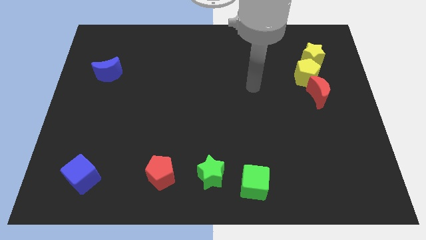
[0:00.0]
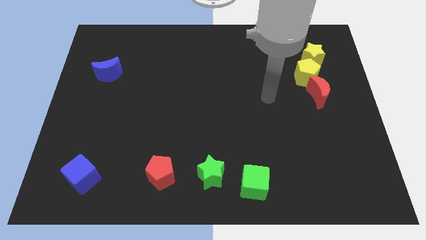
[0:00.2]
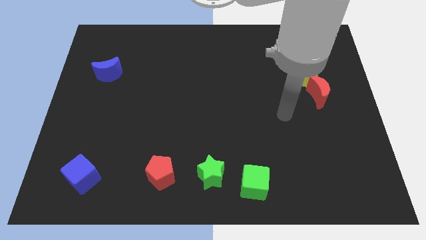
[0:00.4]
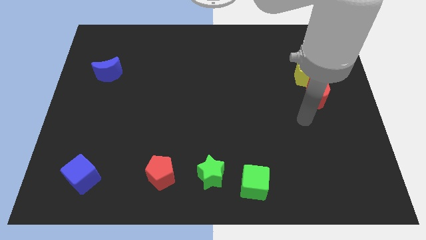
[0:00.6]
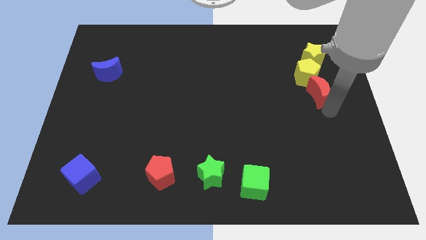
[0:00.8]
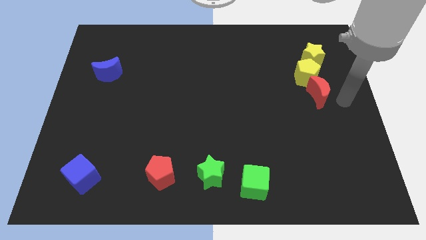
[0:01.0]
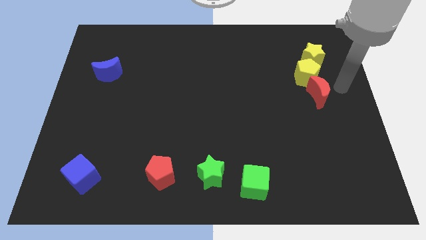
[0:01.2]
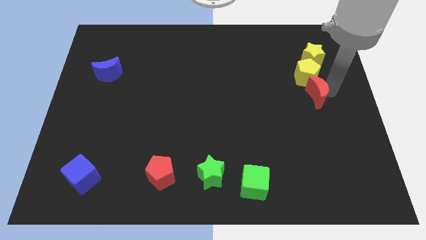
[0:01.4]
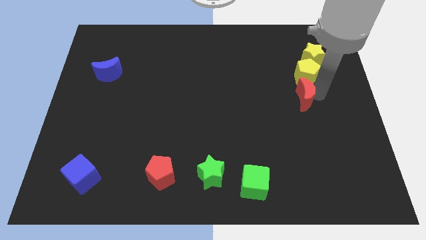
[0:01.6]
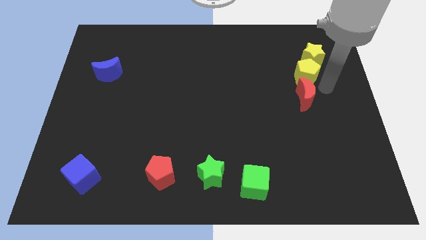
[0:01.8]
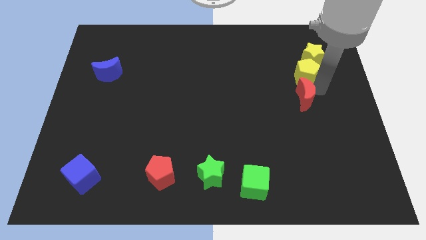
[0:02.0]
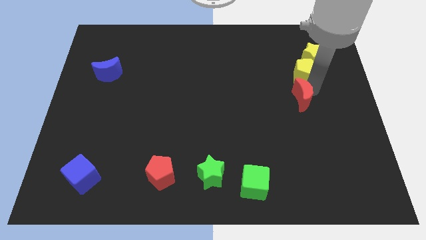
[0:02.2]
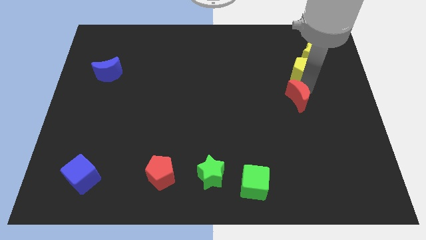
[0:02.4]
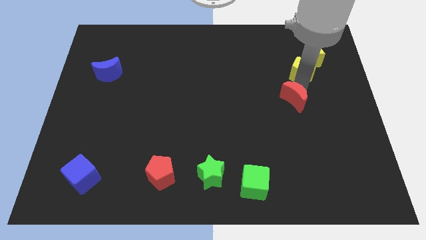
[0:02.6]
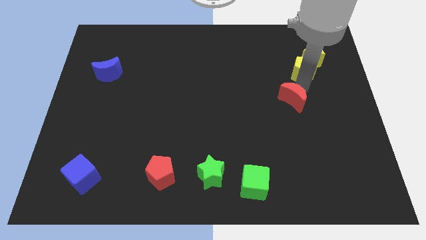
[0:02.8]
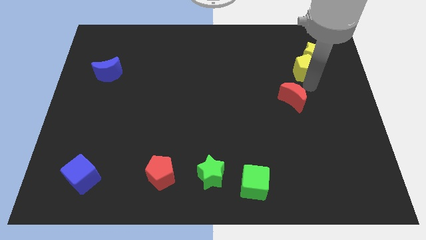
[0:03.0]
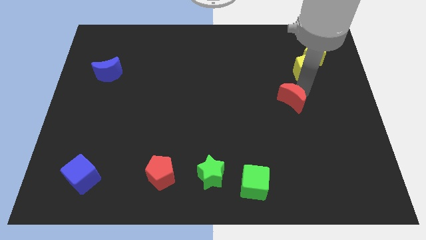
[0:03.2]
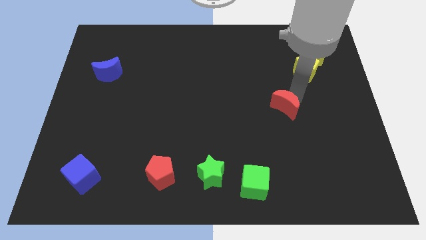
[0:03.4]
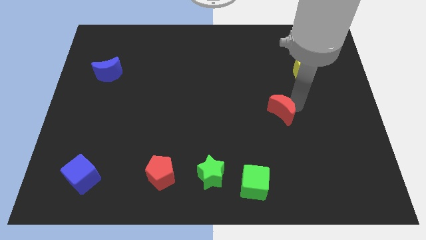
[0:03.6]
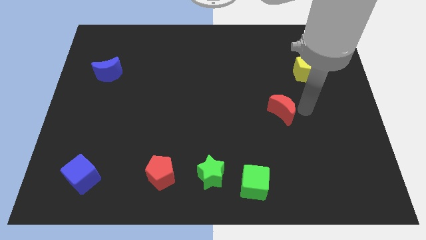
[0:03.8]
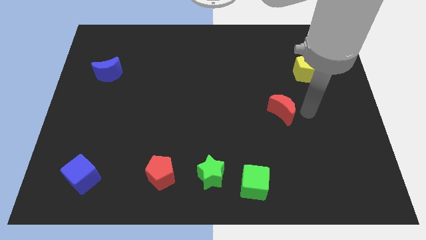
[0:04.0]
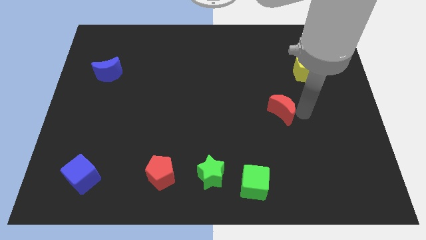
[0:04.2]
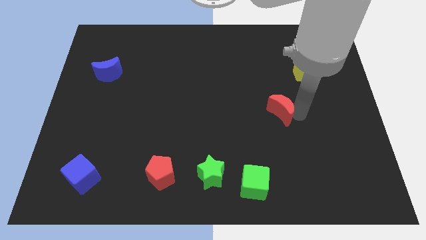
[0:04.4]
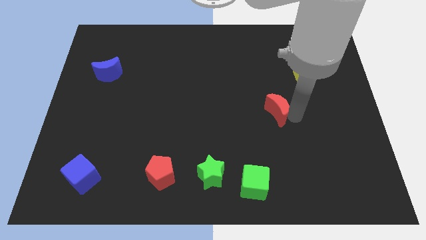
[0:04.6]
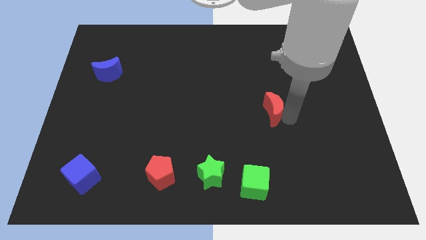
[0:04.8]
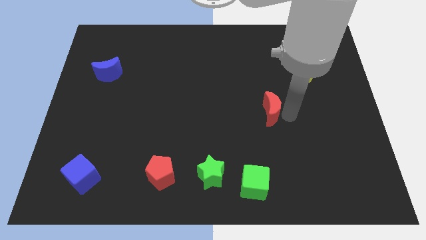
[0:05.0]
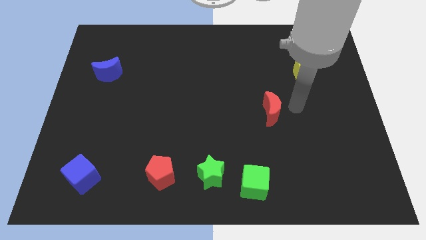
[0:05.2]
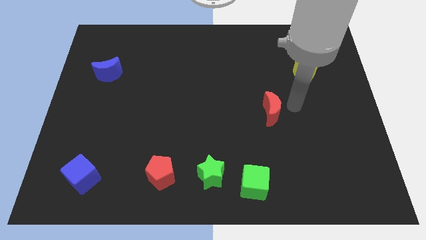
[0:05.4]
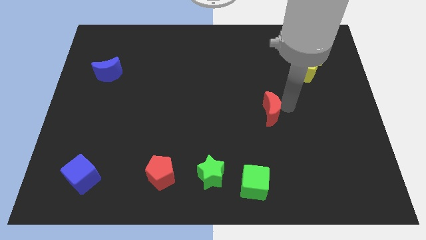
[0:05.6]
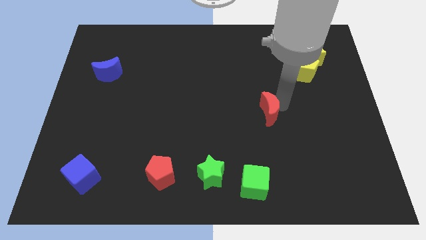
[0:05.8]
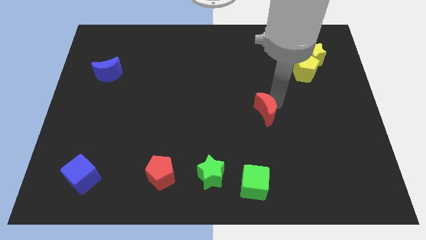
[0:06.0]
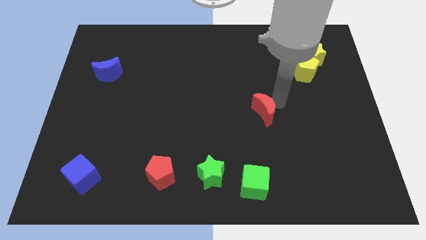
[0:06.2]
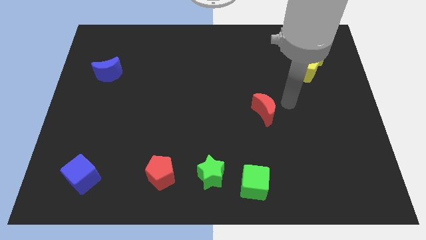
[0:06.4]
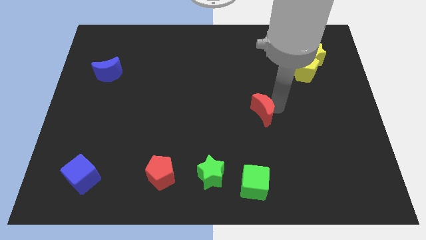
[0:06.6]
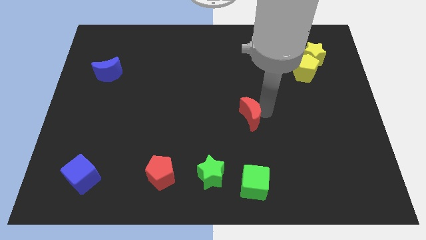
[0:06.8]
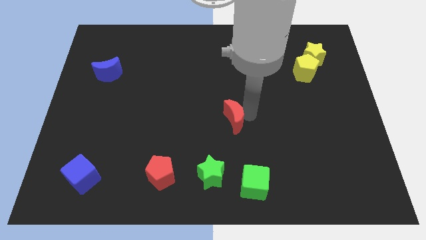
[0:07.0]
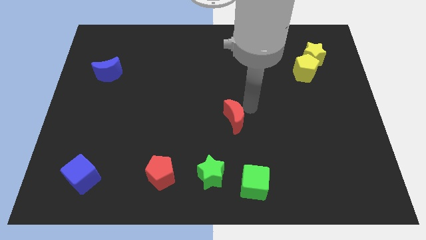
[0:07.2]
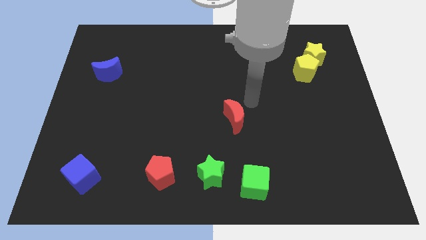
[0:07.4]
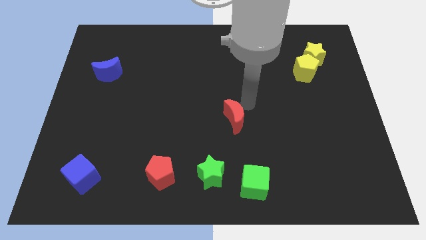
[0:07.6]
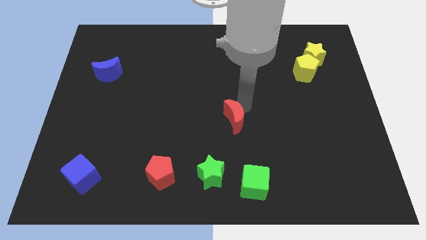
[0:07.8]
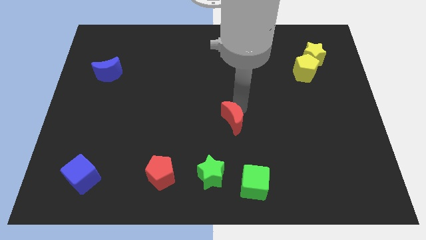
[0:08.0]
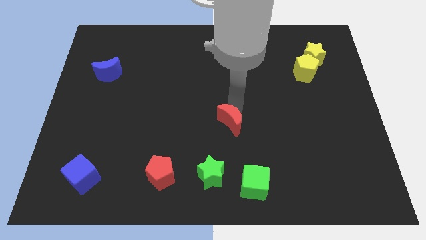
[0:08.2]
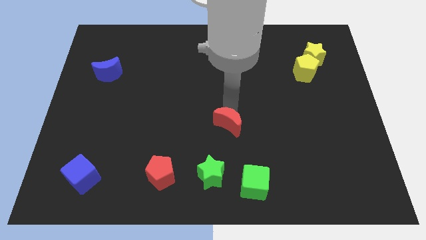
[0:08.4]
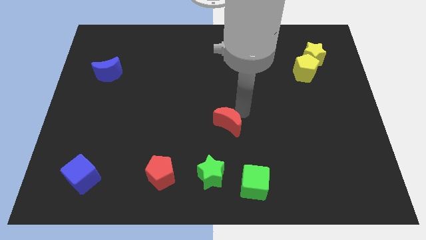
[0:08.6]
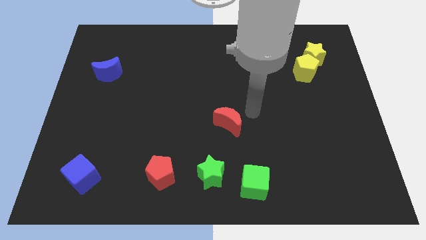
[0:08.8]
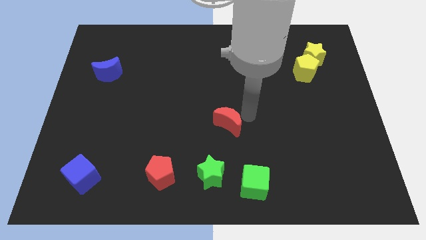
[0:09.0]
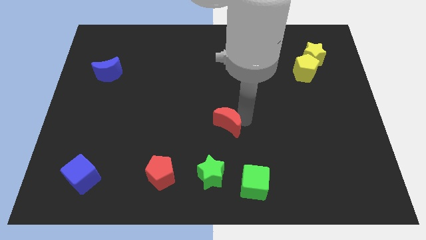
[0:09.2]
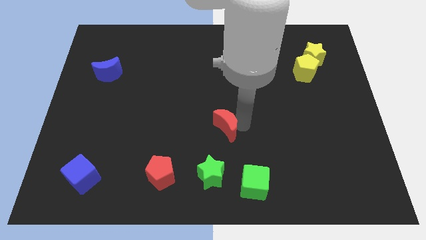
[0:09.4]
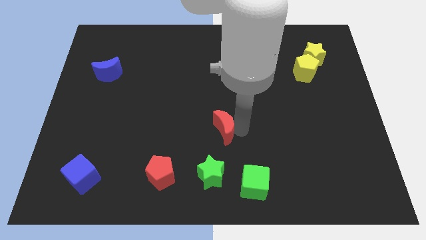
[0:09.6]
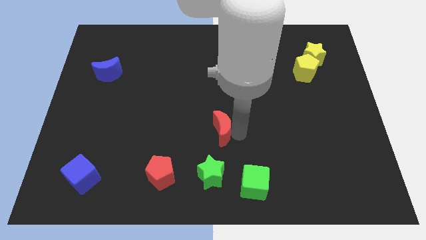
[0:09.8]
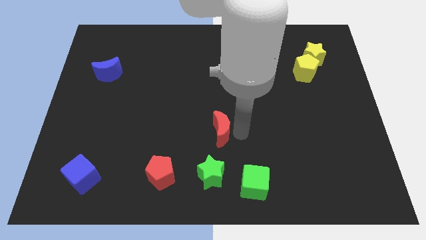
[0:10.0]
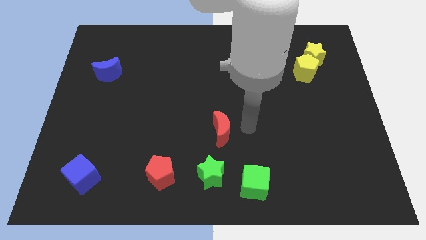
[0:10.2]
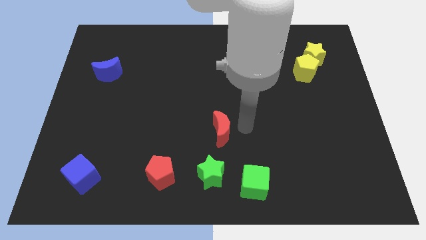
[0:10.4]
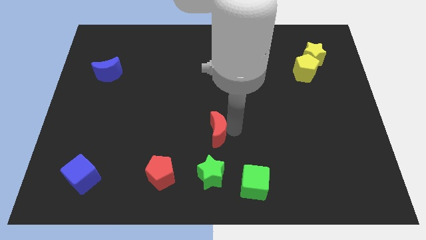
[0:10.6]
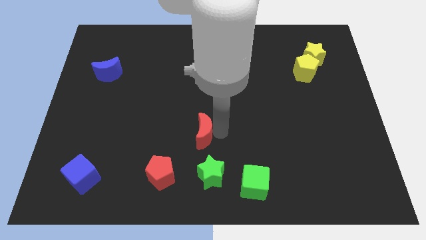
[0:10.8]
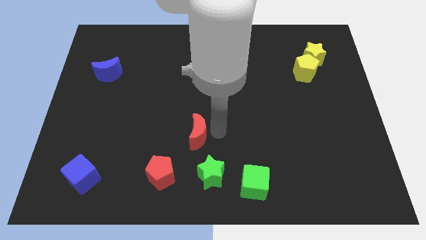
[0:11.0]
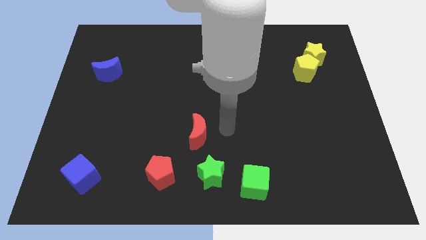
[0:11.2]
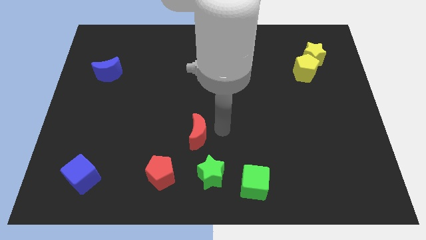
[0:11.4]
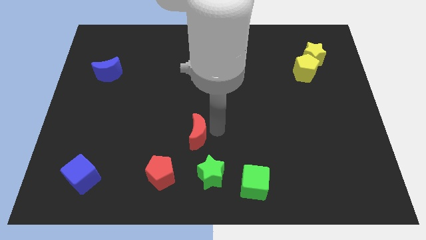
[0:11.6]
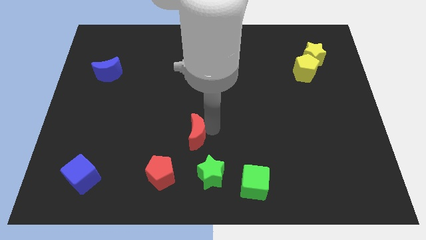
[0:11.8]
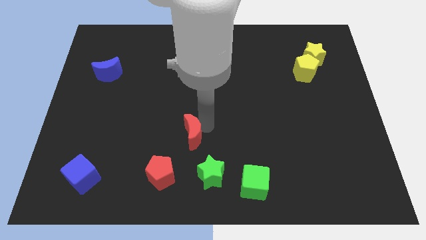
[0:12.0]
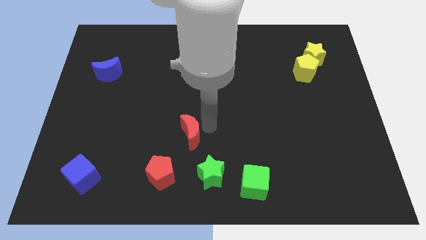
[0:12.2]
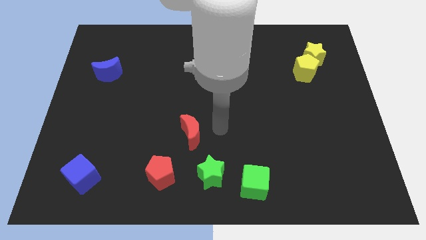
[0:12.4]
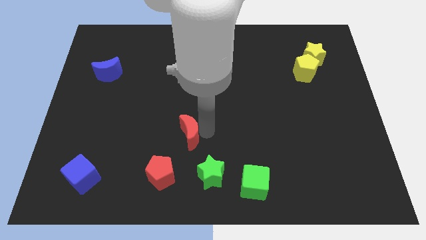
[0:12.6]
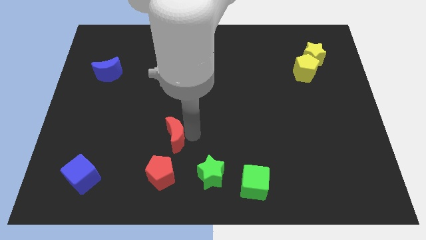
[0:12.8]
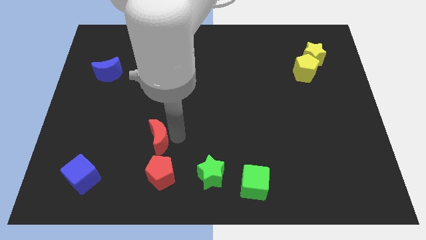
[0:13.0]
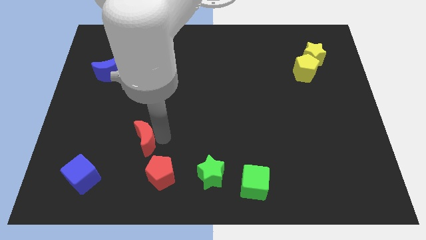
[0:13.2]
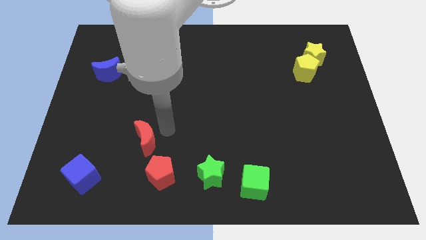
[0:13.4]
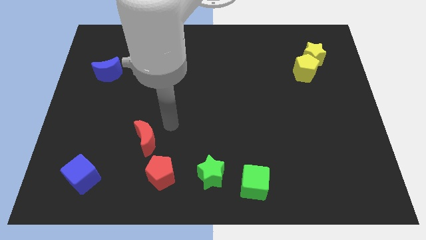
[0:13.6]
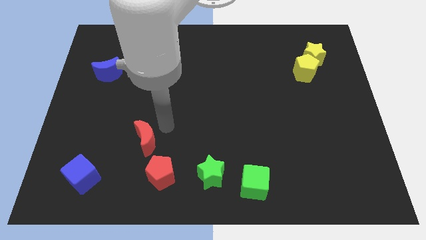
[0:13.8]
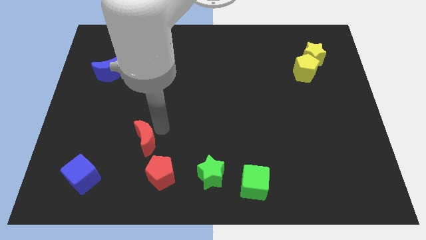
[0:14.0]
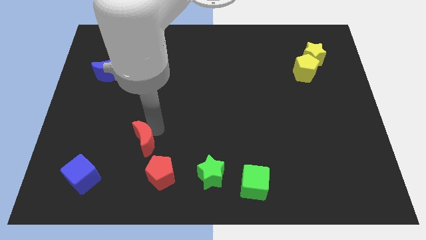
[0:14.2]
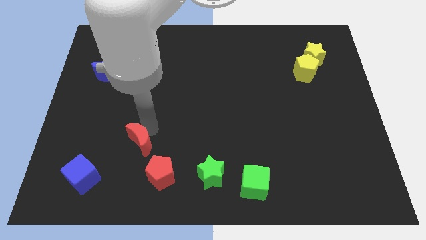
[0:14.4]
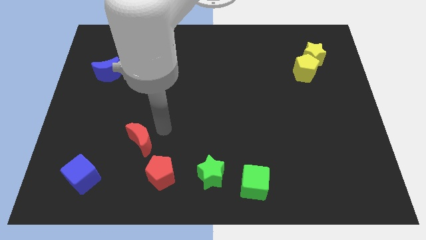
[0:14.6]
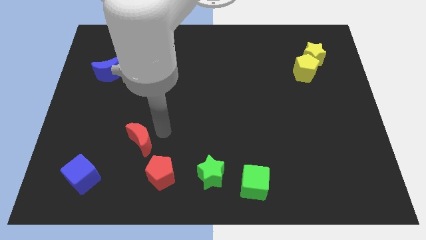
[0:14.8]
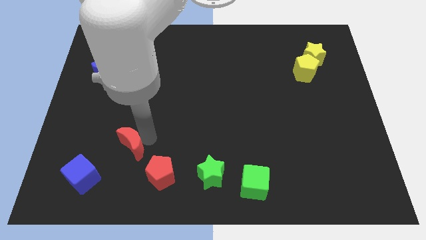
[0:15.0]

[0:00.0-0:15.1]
push the red moon to the top right of the blue cube
